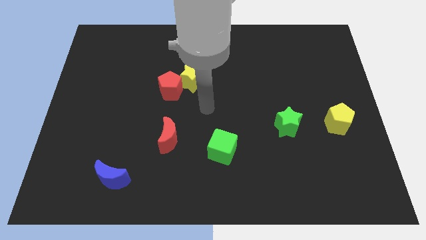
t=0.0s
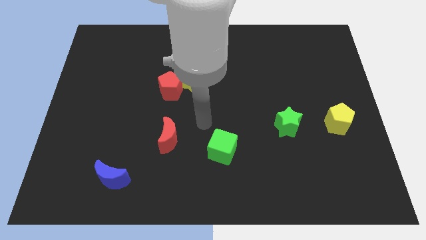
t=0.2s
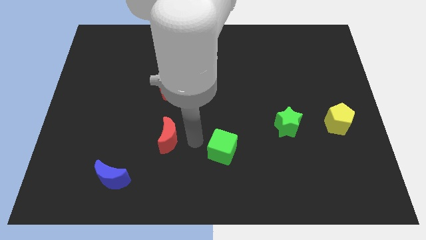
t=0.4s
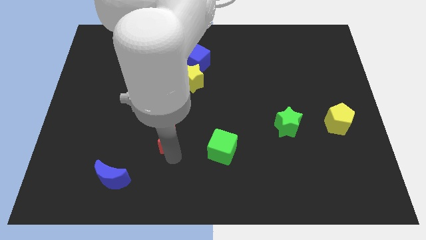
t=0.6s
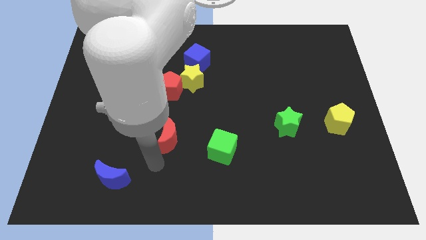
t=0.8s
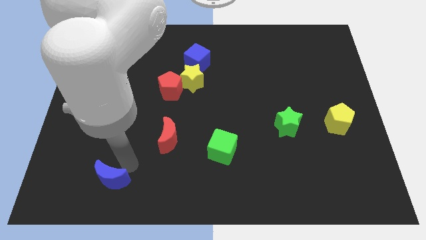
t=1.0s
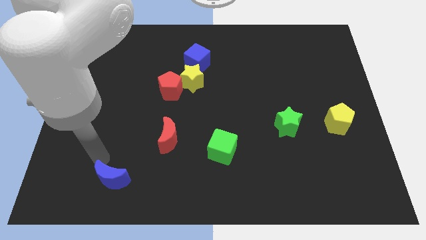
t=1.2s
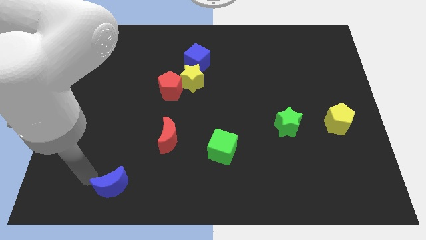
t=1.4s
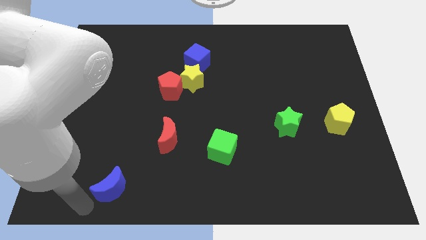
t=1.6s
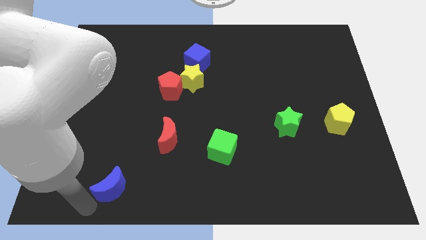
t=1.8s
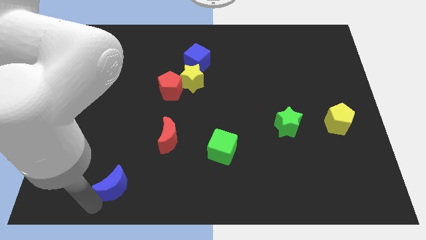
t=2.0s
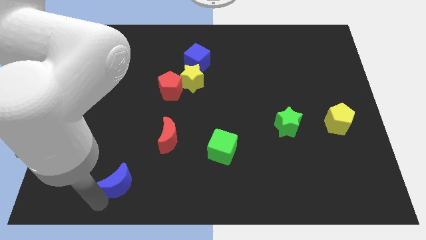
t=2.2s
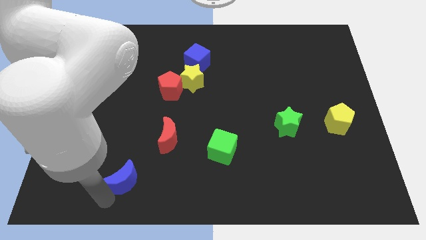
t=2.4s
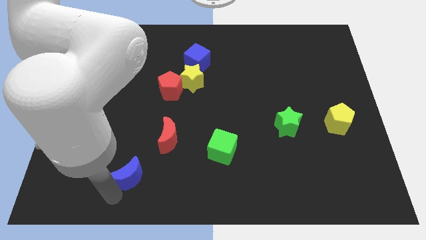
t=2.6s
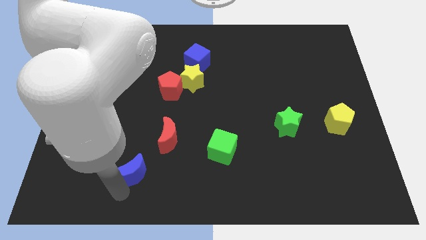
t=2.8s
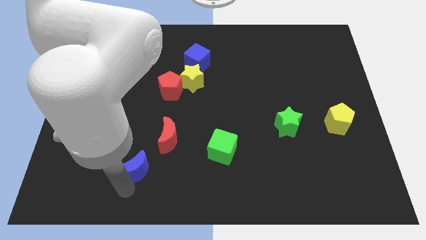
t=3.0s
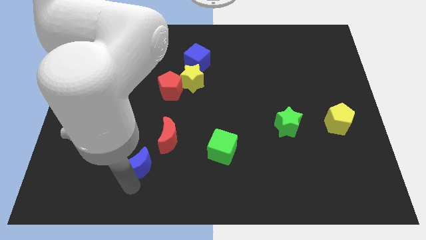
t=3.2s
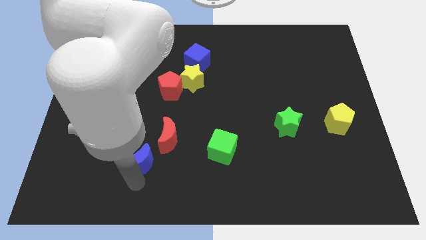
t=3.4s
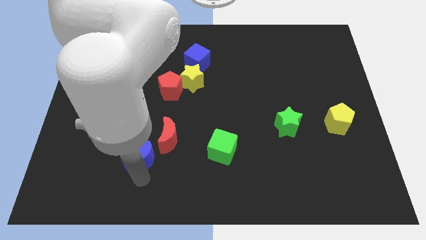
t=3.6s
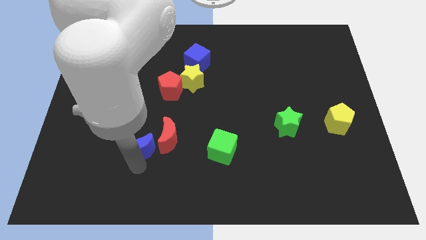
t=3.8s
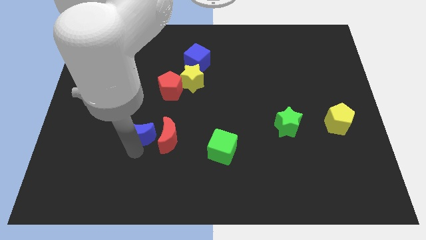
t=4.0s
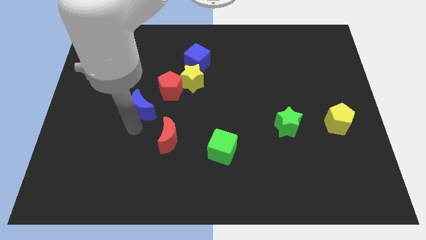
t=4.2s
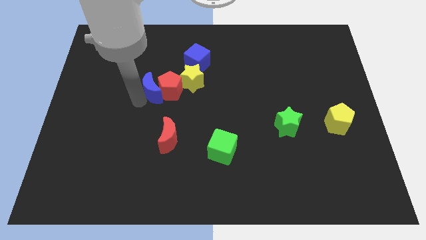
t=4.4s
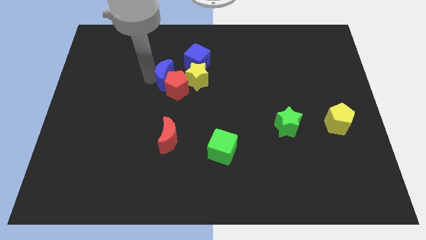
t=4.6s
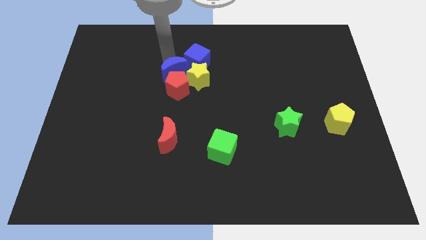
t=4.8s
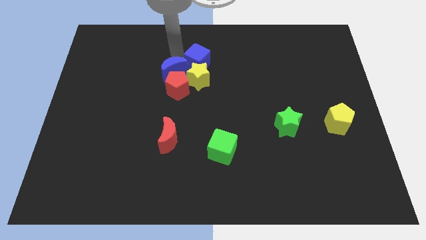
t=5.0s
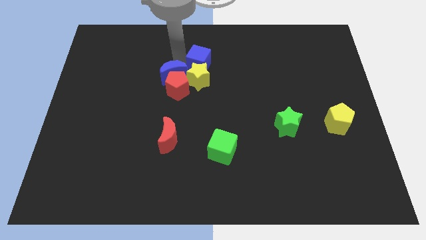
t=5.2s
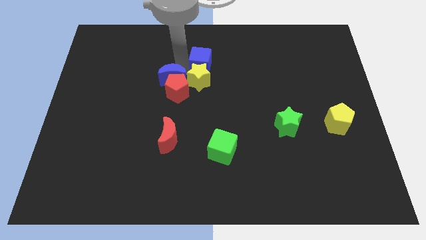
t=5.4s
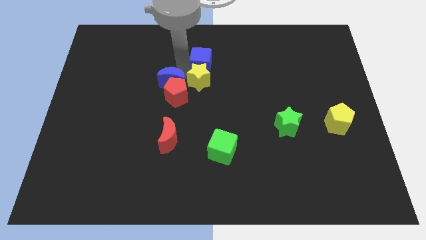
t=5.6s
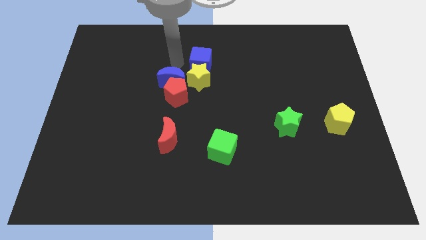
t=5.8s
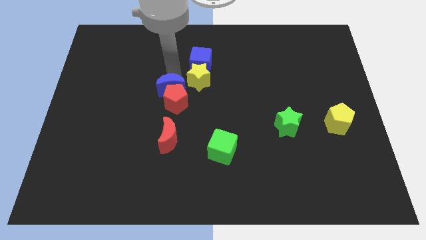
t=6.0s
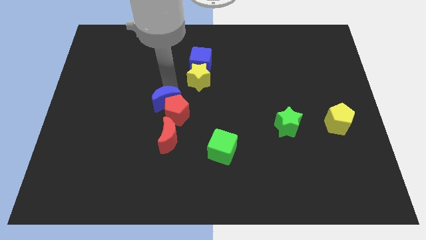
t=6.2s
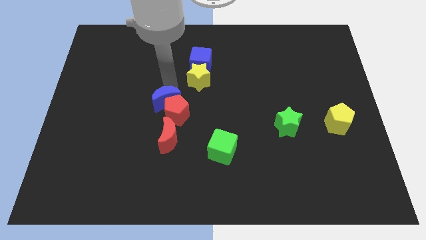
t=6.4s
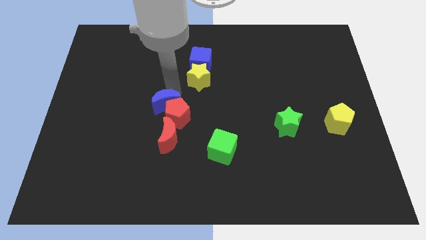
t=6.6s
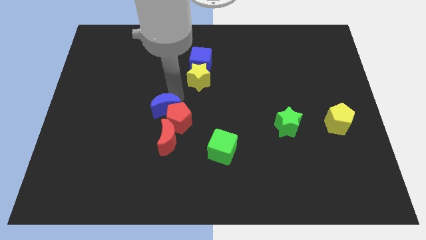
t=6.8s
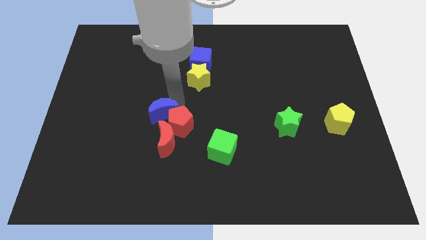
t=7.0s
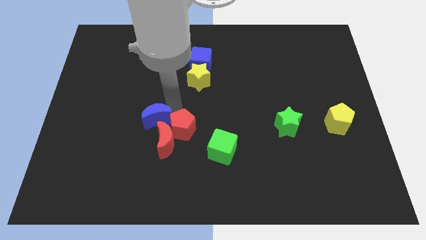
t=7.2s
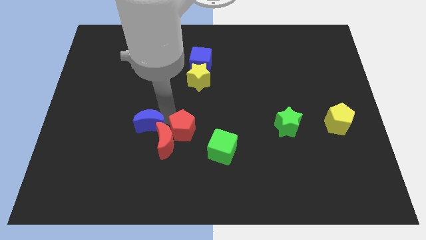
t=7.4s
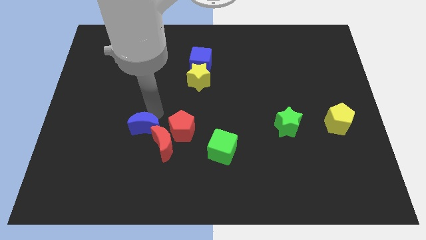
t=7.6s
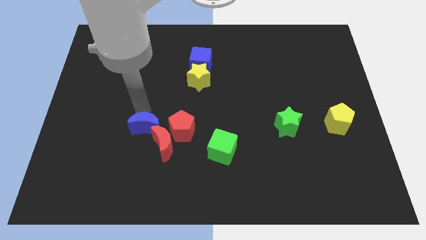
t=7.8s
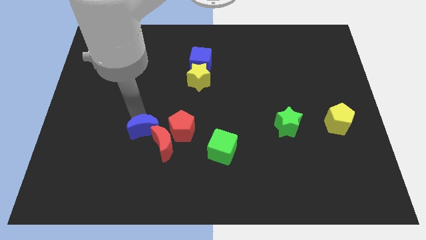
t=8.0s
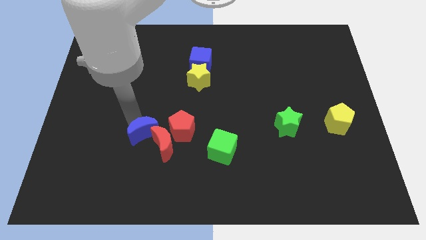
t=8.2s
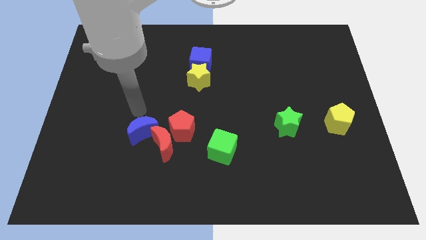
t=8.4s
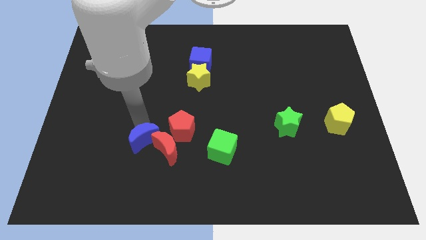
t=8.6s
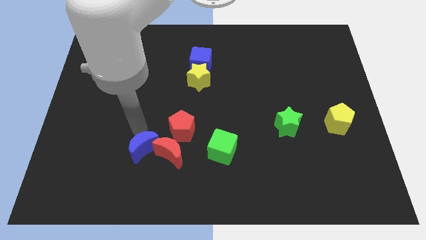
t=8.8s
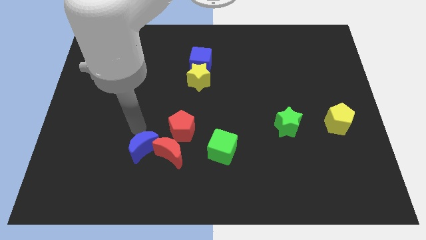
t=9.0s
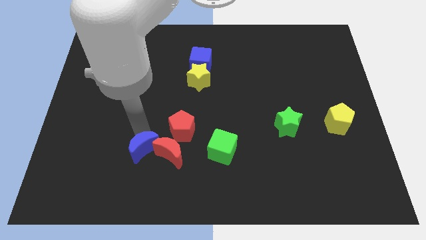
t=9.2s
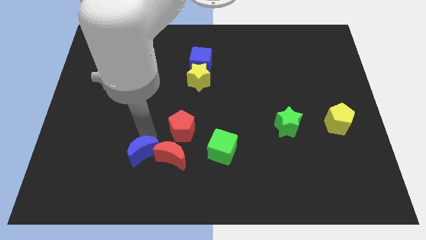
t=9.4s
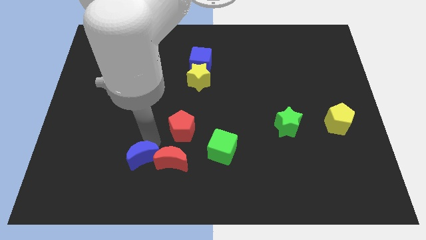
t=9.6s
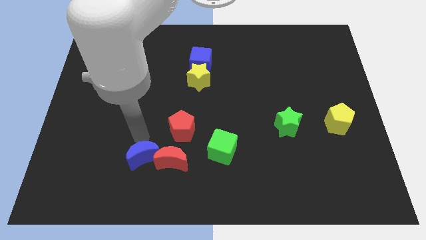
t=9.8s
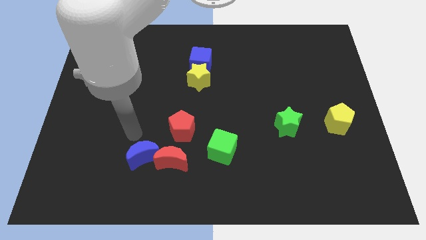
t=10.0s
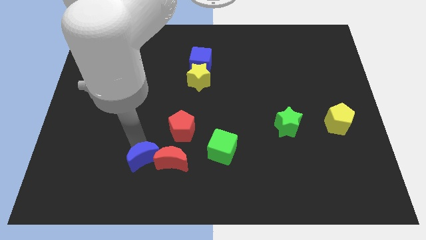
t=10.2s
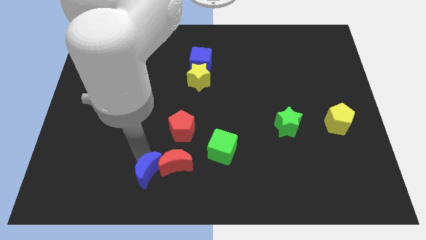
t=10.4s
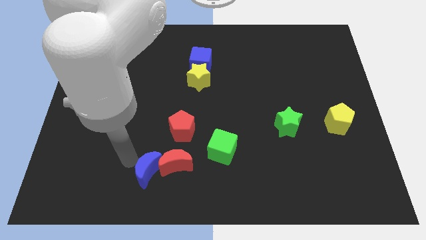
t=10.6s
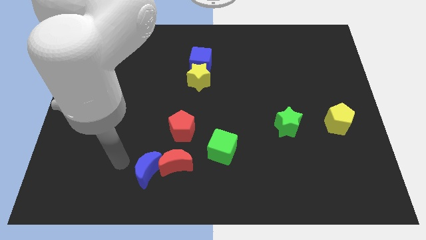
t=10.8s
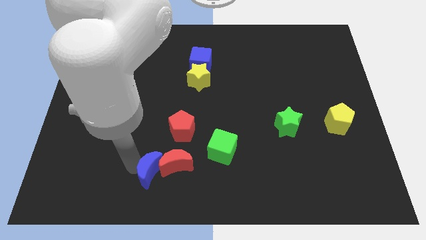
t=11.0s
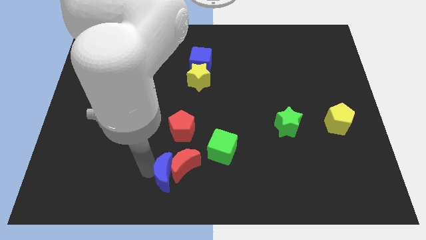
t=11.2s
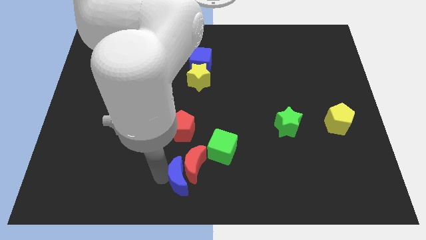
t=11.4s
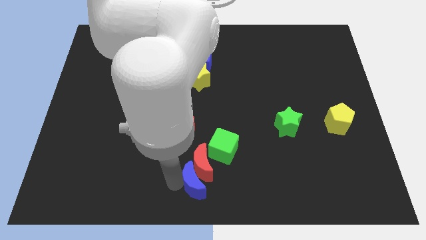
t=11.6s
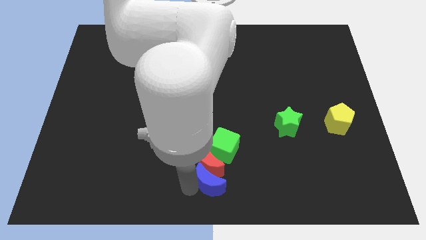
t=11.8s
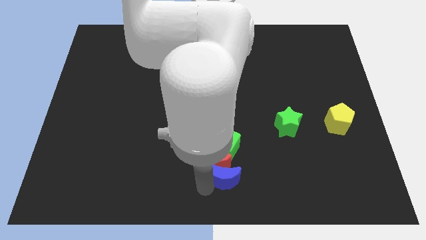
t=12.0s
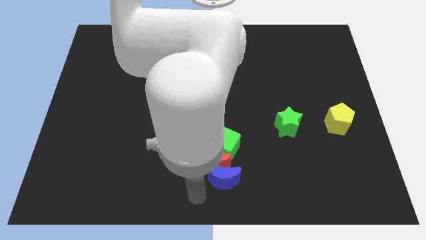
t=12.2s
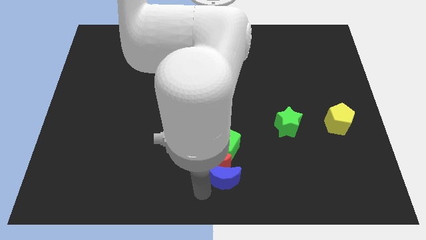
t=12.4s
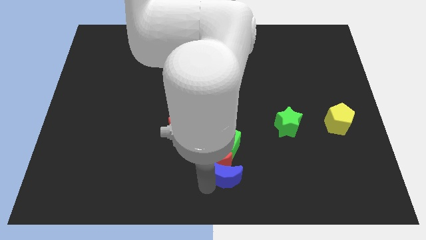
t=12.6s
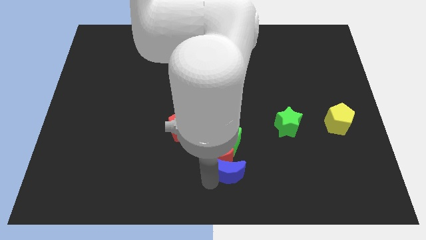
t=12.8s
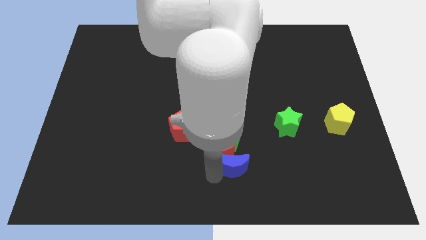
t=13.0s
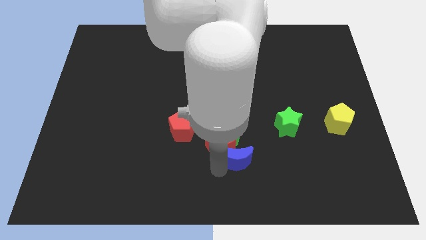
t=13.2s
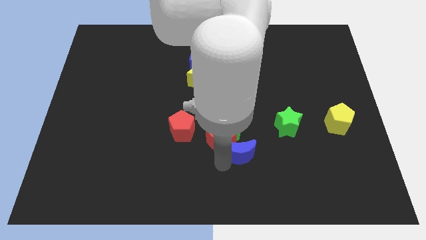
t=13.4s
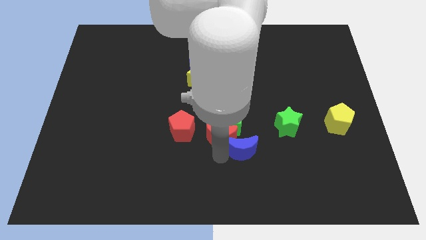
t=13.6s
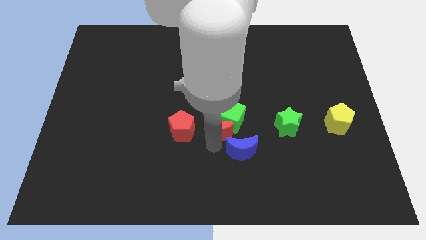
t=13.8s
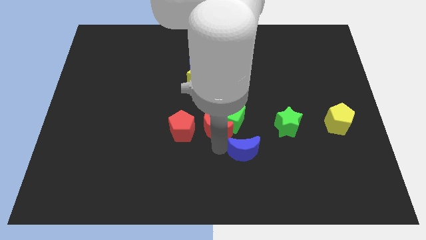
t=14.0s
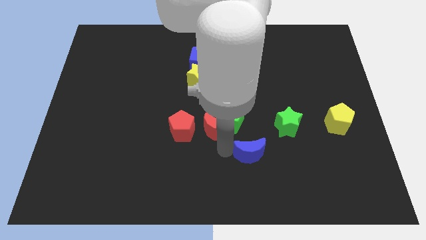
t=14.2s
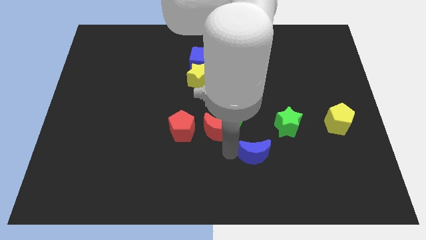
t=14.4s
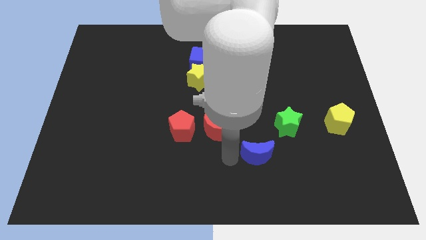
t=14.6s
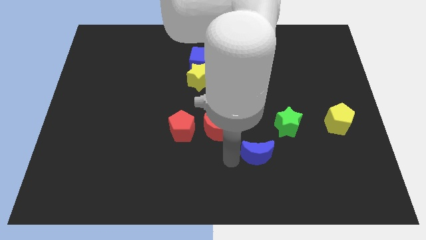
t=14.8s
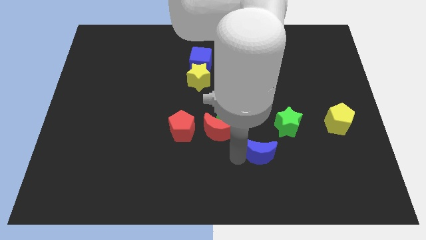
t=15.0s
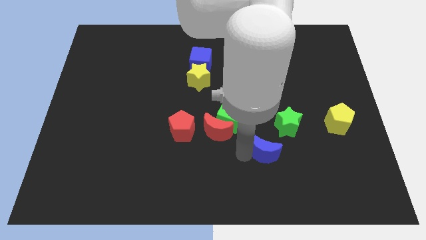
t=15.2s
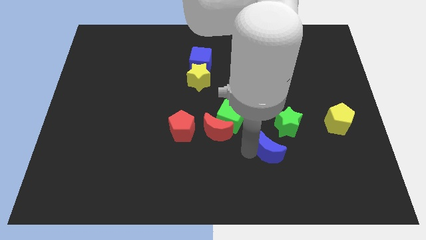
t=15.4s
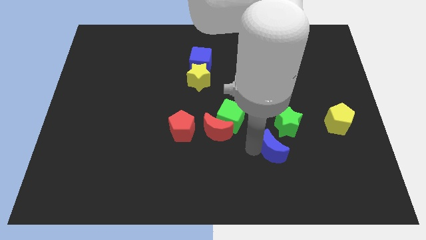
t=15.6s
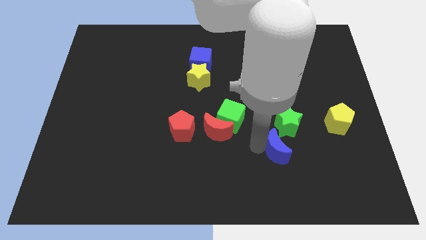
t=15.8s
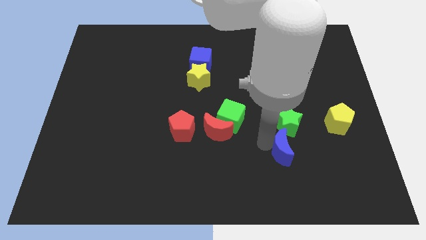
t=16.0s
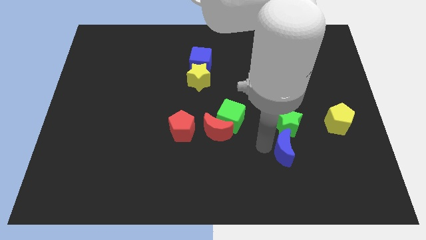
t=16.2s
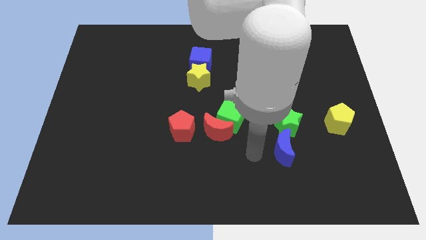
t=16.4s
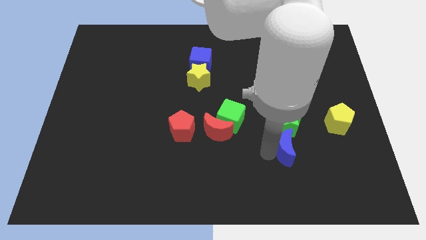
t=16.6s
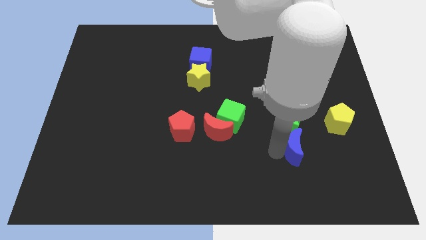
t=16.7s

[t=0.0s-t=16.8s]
put the blue moon diagonally down and to the right of the green star
